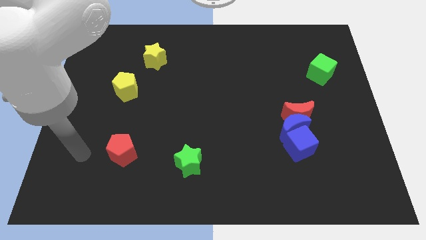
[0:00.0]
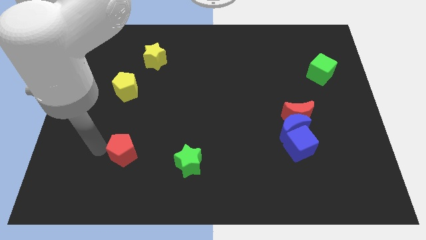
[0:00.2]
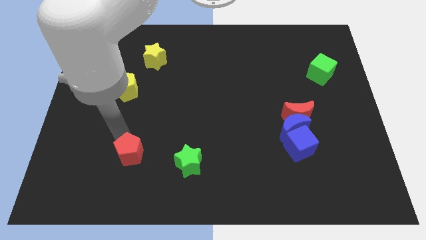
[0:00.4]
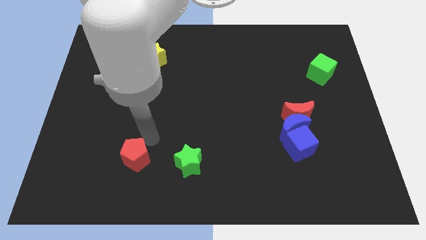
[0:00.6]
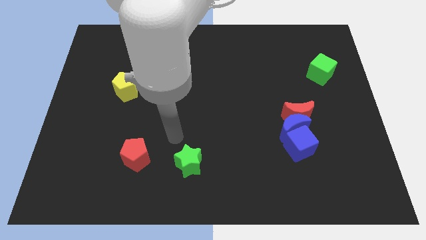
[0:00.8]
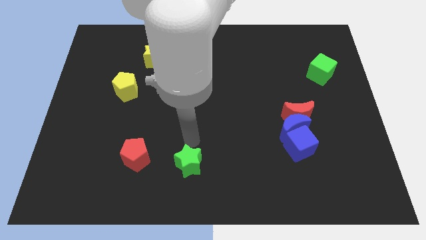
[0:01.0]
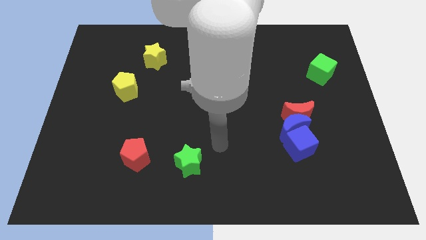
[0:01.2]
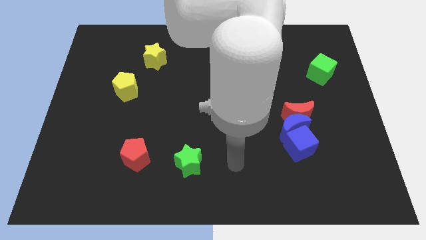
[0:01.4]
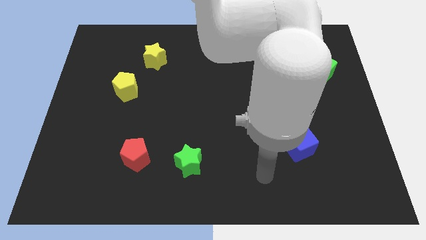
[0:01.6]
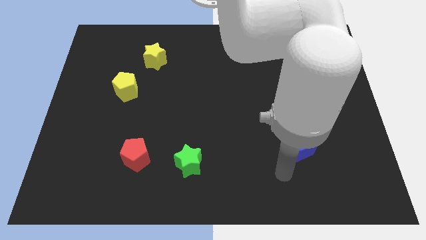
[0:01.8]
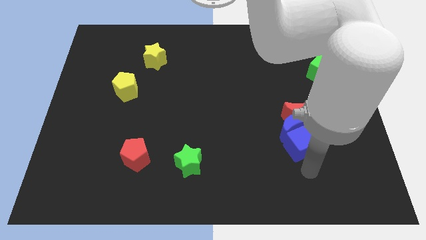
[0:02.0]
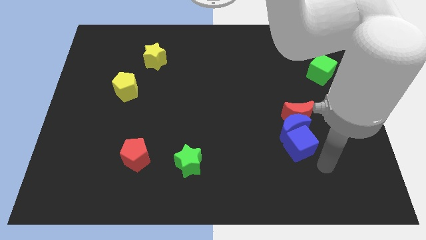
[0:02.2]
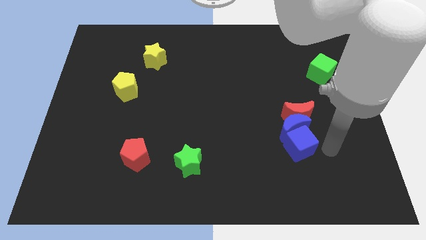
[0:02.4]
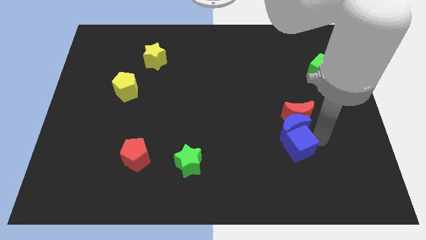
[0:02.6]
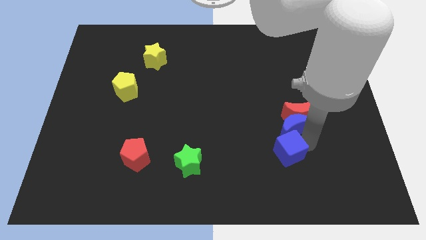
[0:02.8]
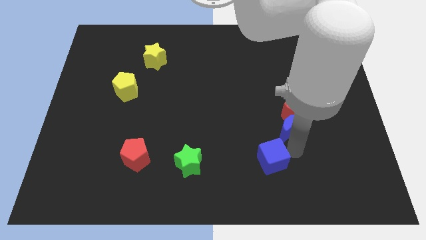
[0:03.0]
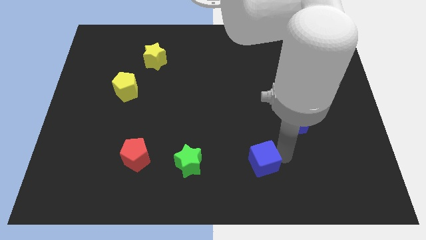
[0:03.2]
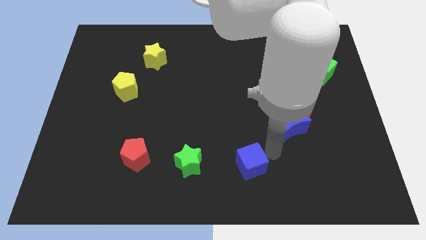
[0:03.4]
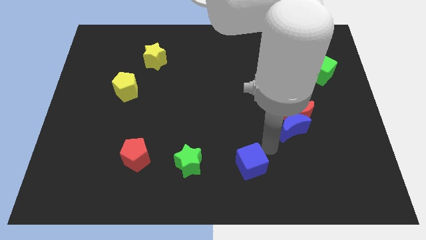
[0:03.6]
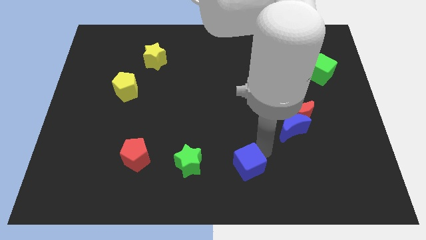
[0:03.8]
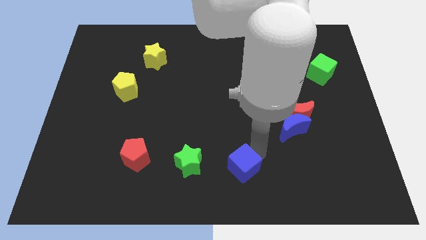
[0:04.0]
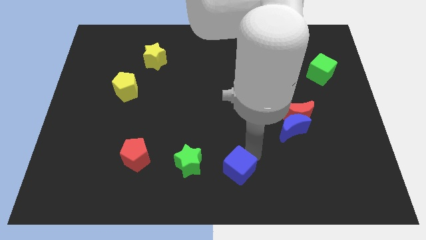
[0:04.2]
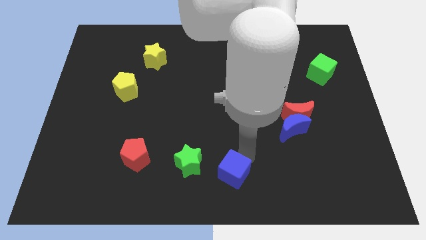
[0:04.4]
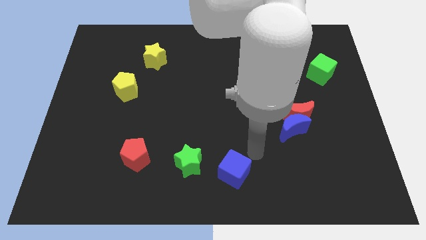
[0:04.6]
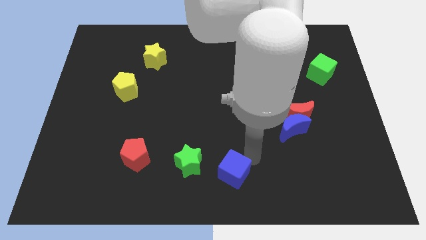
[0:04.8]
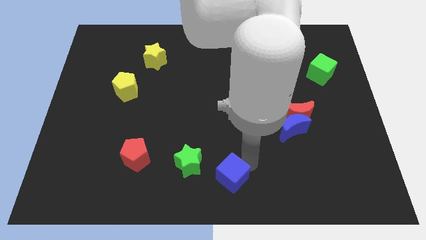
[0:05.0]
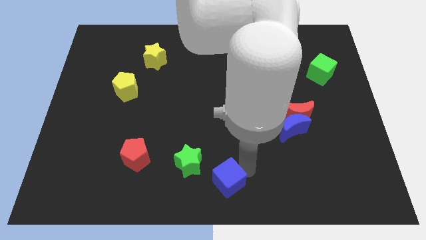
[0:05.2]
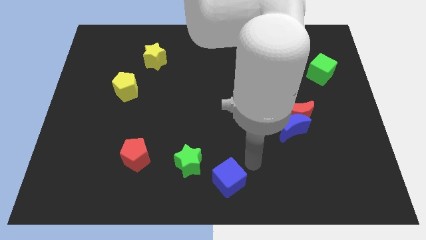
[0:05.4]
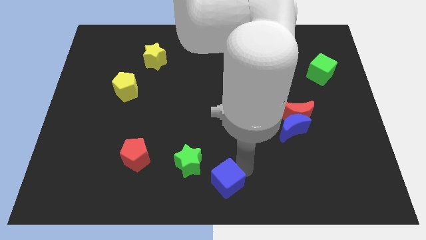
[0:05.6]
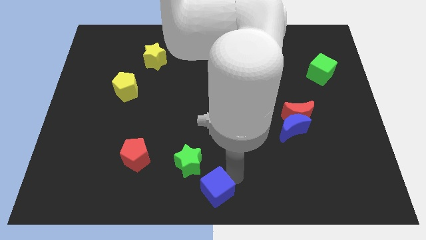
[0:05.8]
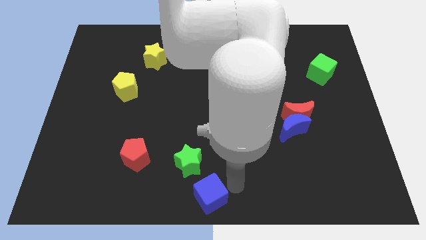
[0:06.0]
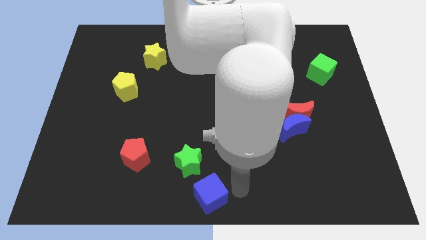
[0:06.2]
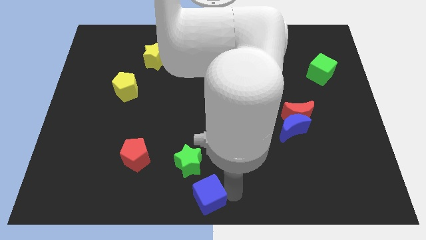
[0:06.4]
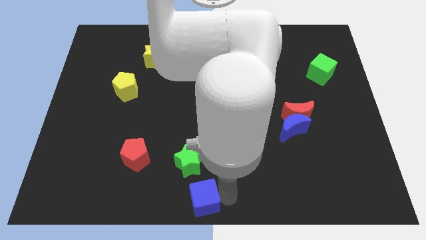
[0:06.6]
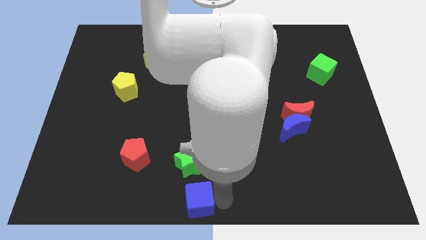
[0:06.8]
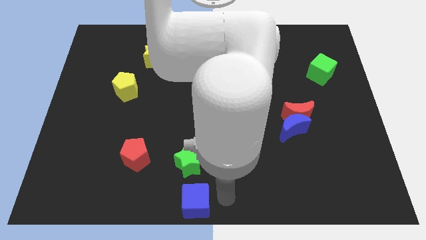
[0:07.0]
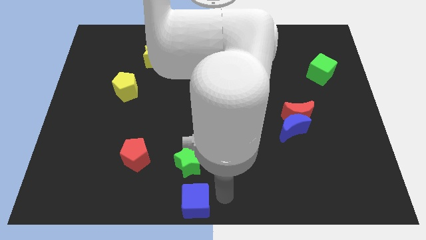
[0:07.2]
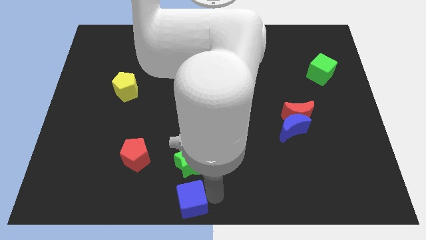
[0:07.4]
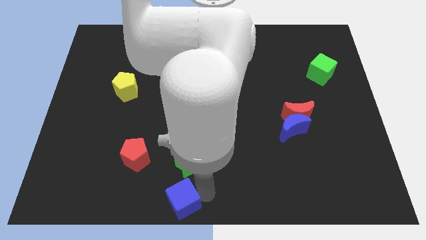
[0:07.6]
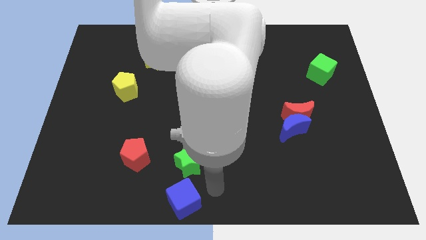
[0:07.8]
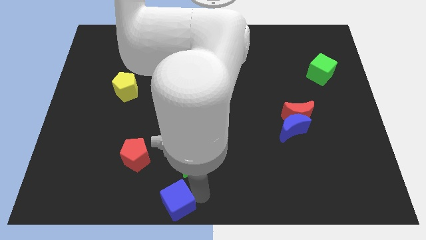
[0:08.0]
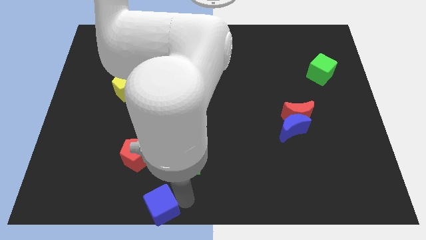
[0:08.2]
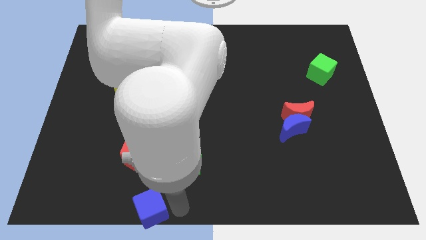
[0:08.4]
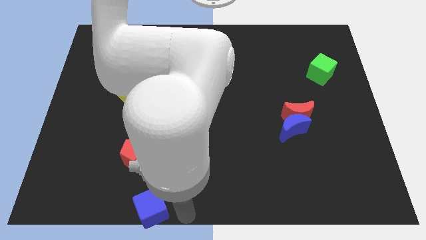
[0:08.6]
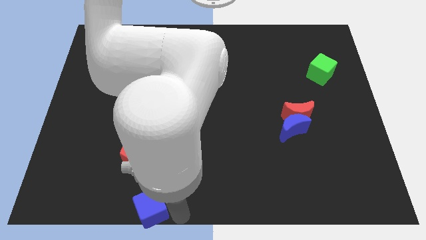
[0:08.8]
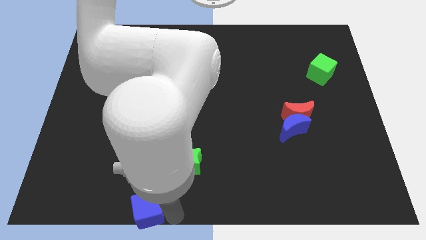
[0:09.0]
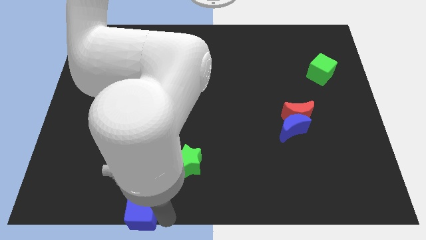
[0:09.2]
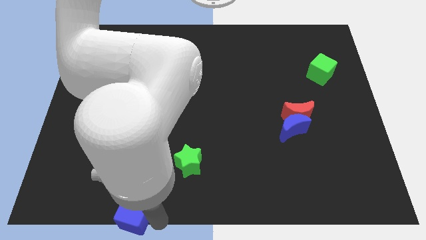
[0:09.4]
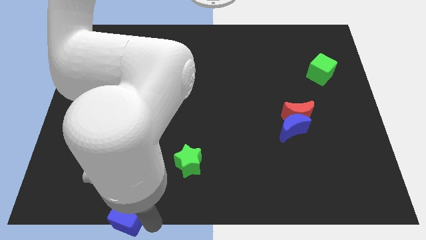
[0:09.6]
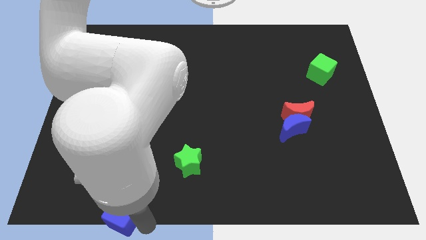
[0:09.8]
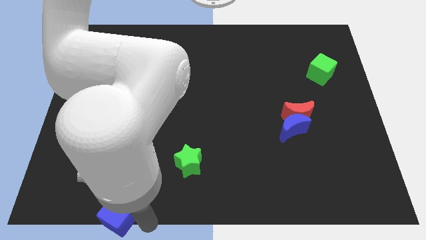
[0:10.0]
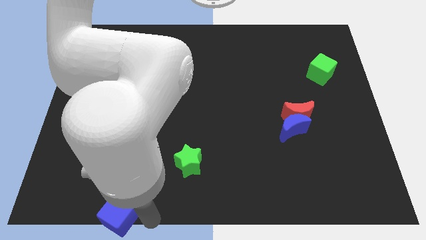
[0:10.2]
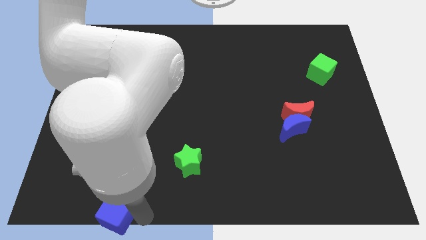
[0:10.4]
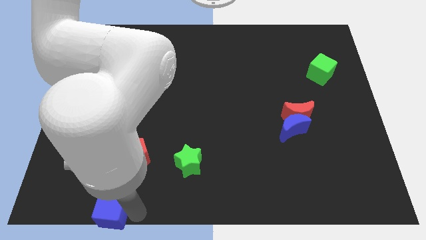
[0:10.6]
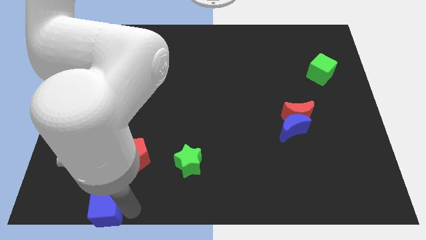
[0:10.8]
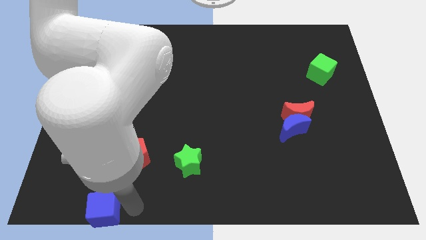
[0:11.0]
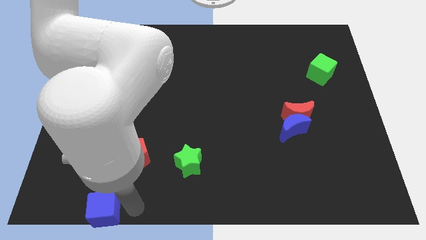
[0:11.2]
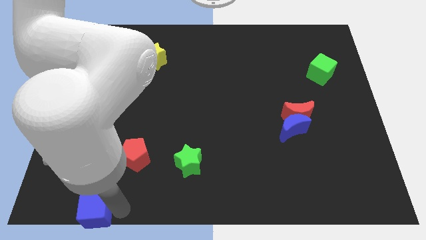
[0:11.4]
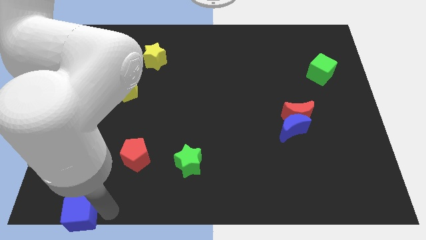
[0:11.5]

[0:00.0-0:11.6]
slide the blue cube to the lower left corner
